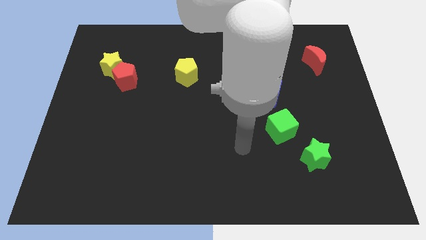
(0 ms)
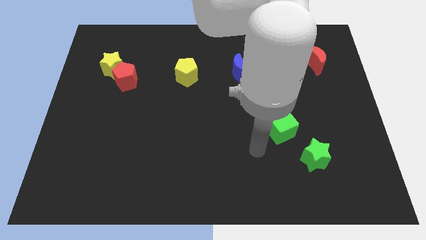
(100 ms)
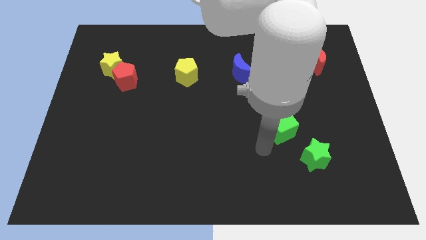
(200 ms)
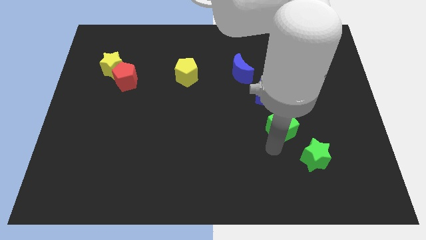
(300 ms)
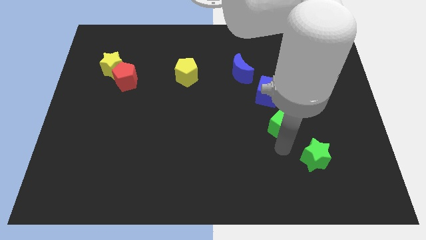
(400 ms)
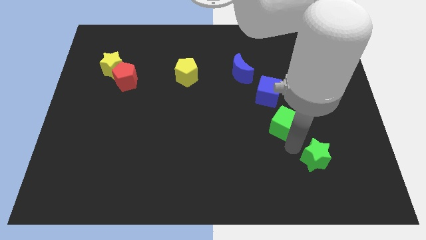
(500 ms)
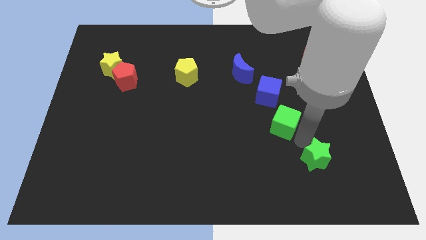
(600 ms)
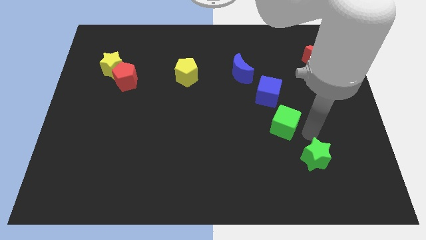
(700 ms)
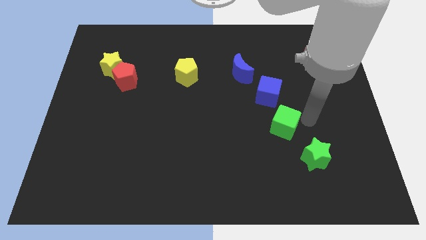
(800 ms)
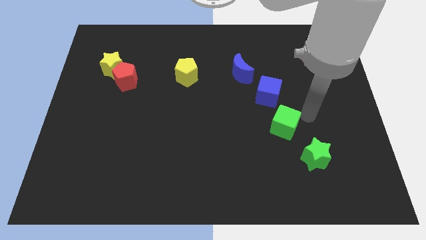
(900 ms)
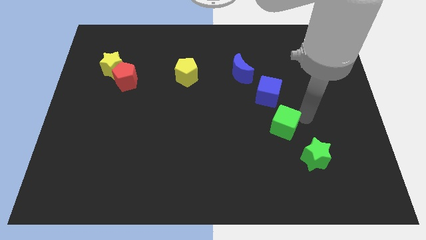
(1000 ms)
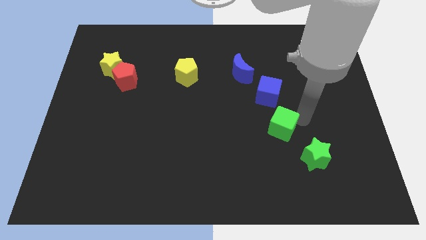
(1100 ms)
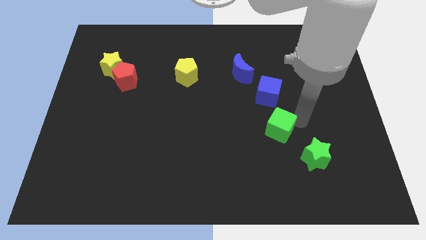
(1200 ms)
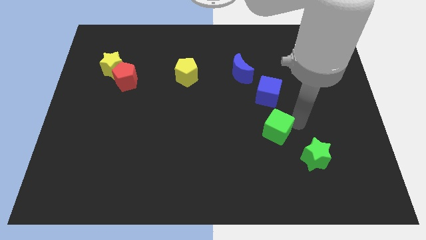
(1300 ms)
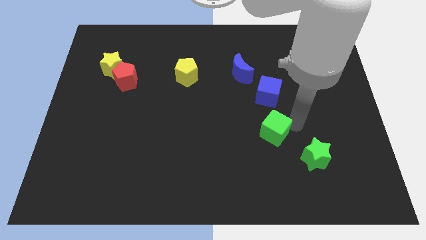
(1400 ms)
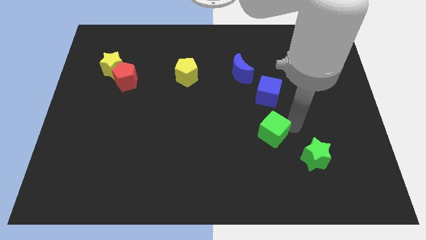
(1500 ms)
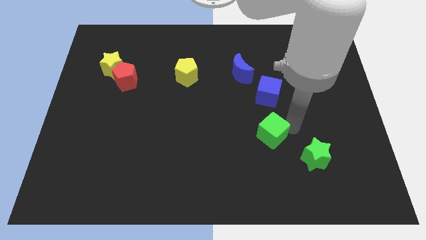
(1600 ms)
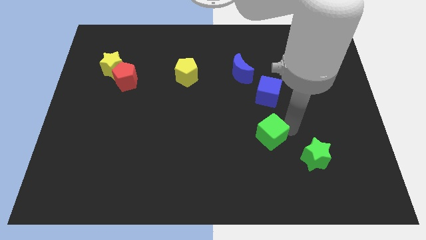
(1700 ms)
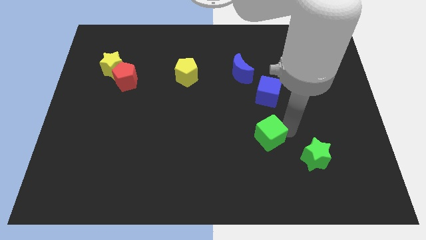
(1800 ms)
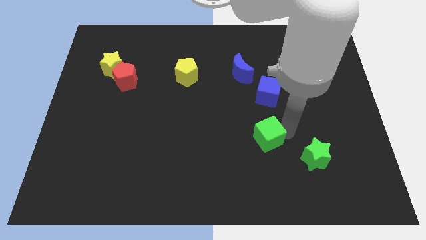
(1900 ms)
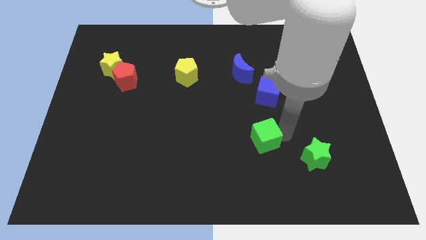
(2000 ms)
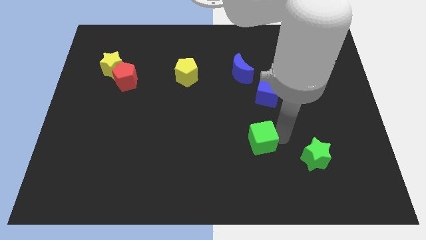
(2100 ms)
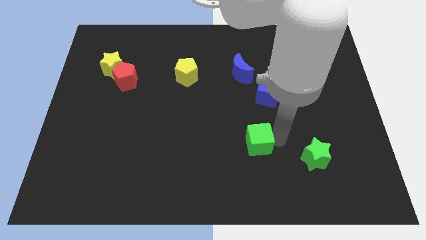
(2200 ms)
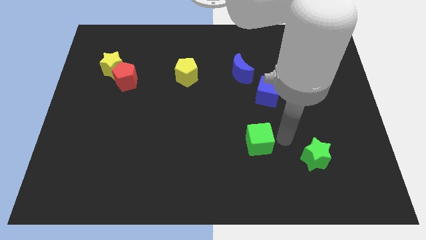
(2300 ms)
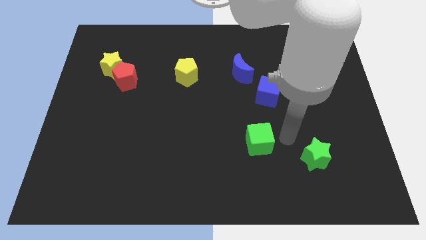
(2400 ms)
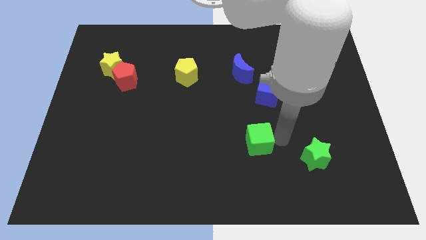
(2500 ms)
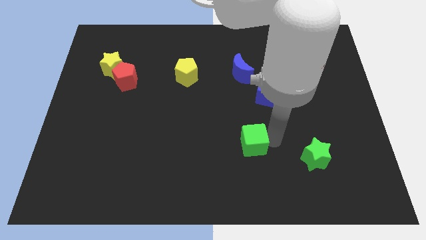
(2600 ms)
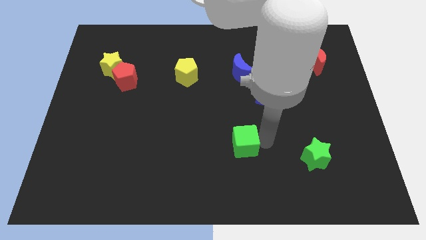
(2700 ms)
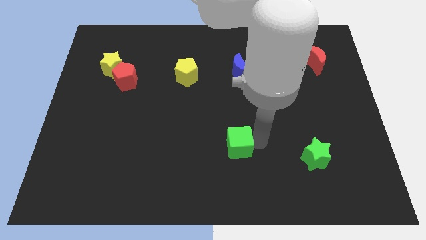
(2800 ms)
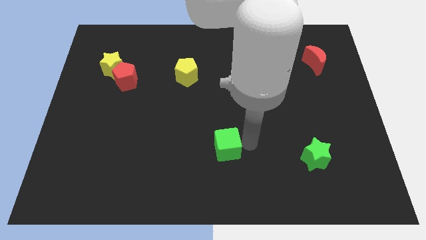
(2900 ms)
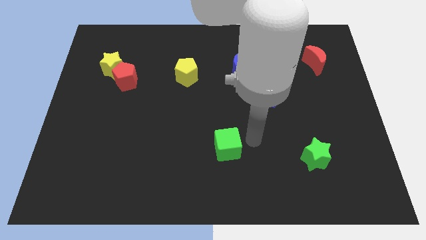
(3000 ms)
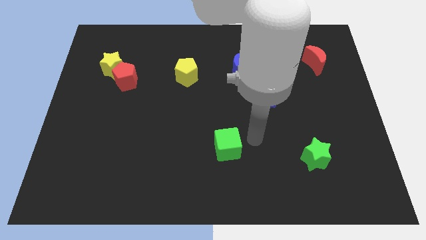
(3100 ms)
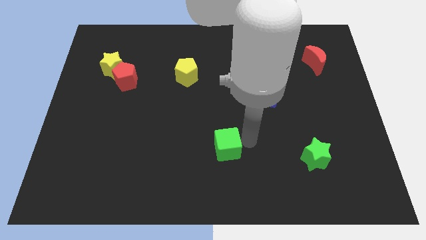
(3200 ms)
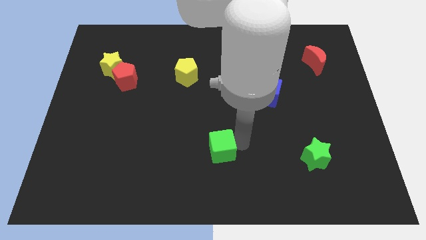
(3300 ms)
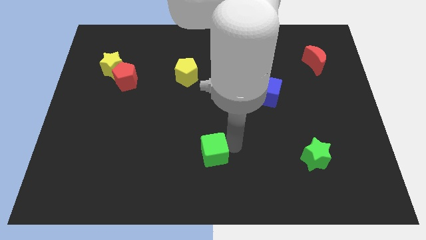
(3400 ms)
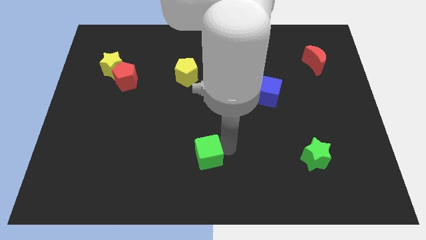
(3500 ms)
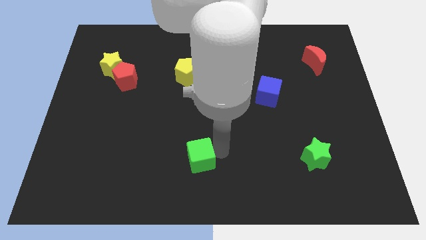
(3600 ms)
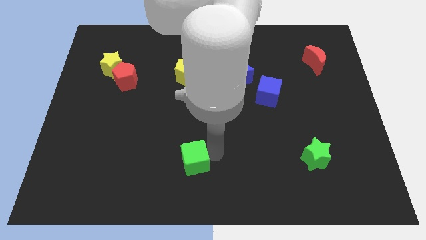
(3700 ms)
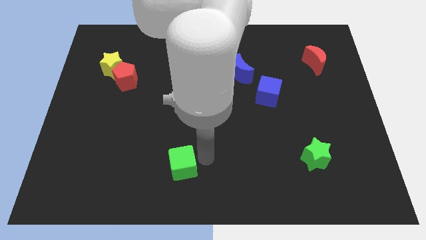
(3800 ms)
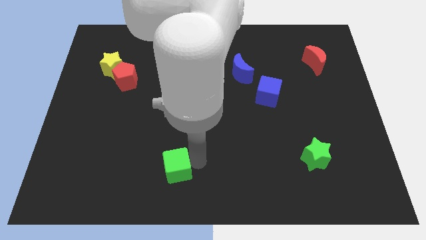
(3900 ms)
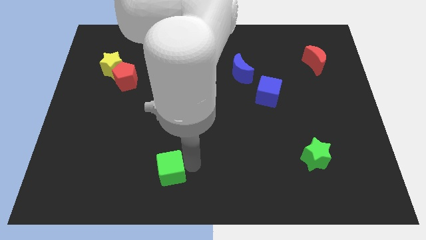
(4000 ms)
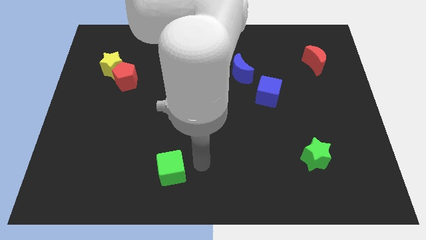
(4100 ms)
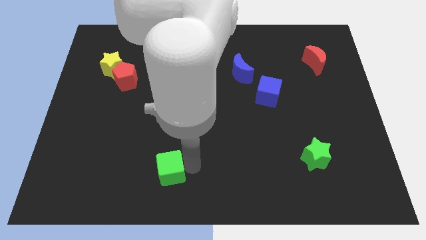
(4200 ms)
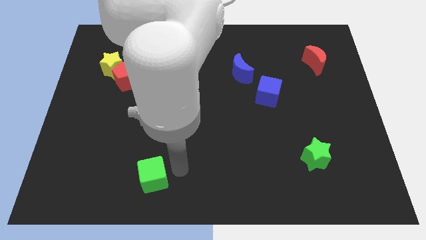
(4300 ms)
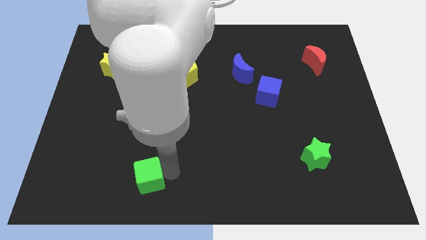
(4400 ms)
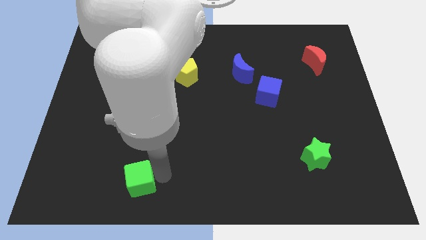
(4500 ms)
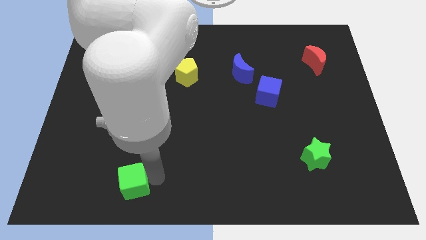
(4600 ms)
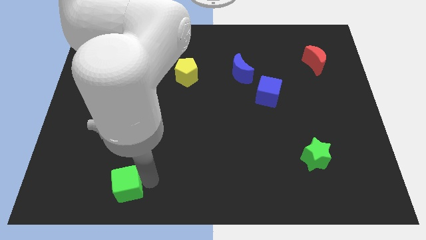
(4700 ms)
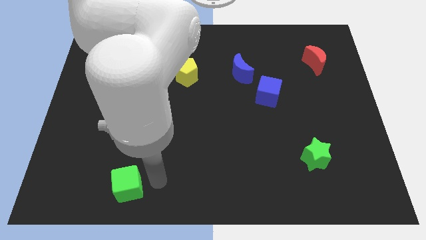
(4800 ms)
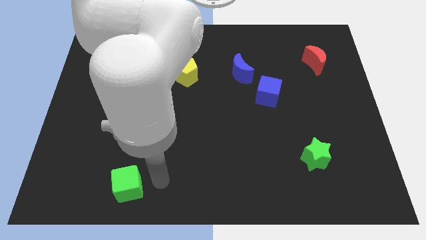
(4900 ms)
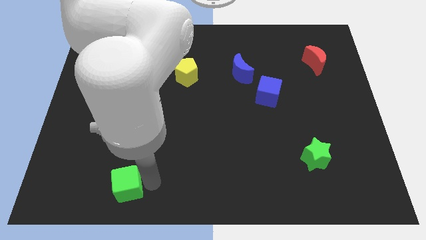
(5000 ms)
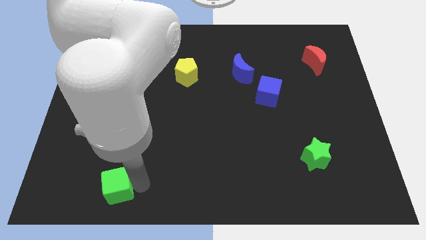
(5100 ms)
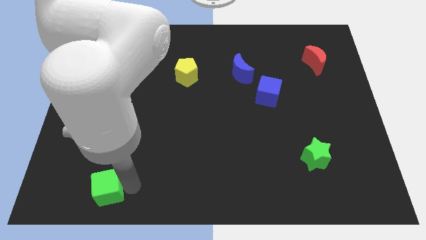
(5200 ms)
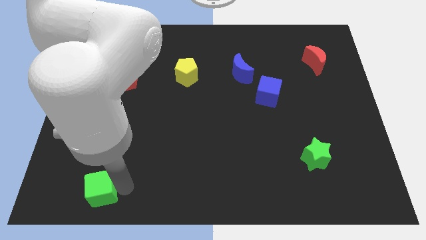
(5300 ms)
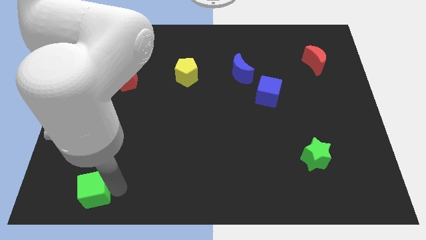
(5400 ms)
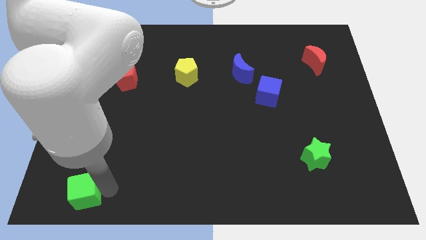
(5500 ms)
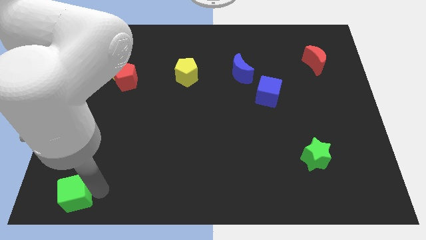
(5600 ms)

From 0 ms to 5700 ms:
slide the green cube to the bottom left corner

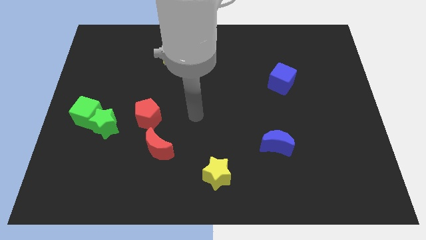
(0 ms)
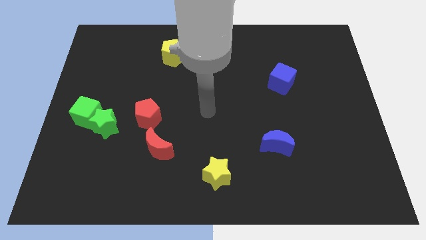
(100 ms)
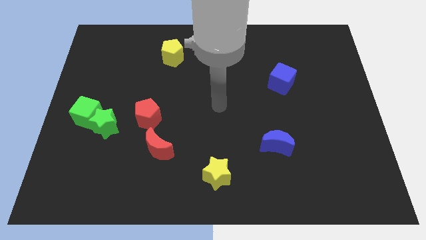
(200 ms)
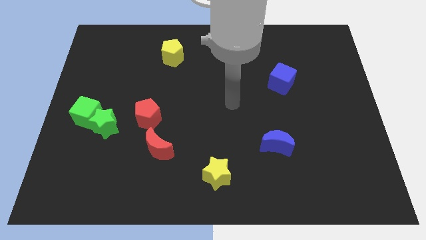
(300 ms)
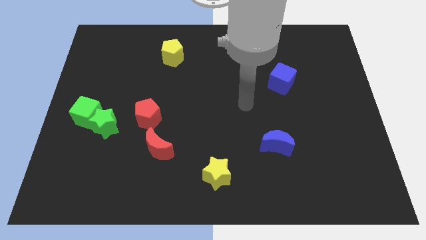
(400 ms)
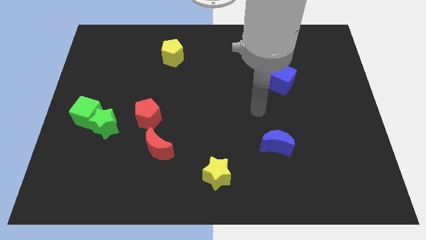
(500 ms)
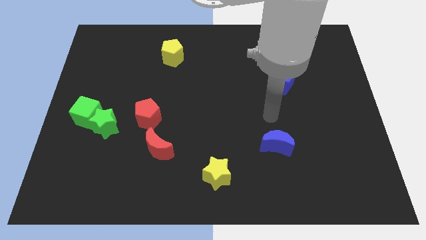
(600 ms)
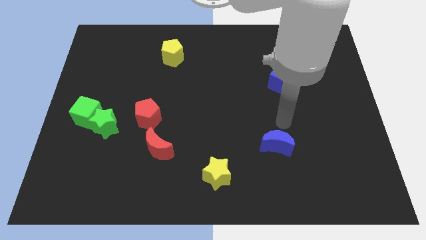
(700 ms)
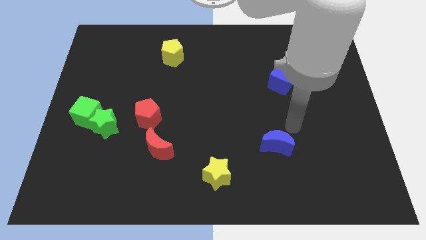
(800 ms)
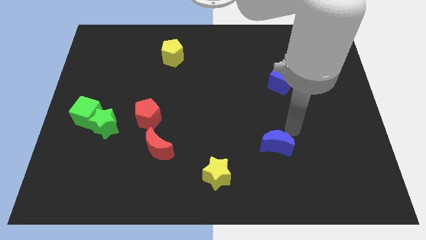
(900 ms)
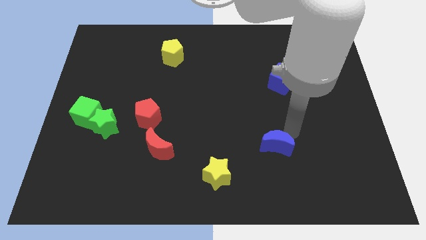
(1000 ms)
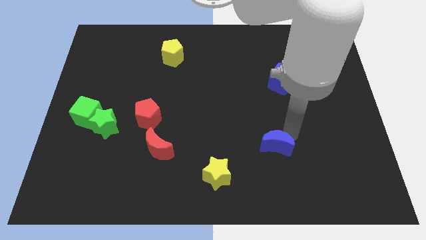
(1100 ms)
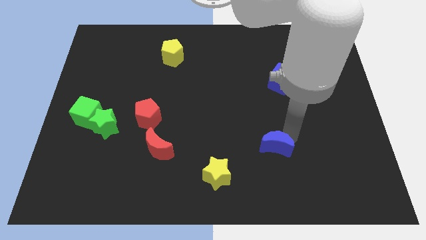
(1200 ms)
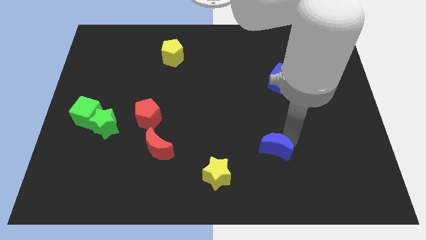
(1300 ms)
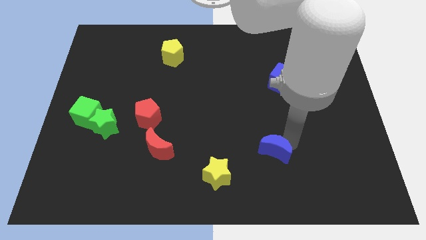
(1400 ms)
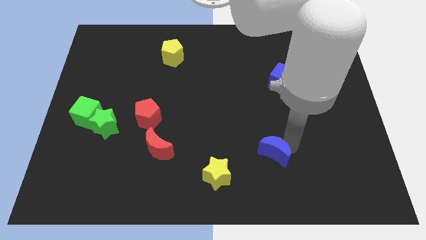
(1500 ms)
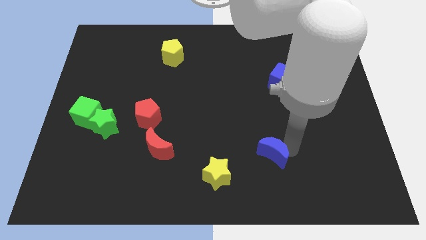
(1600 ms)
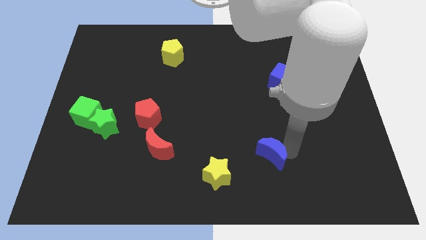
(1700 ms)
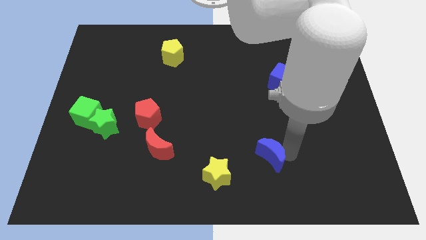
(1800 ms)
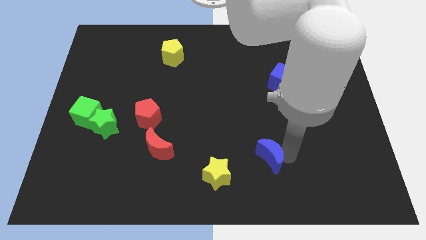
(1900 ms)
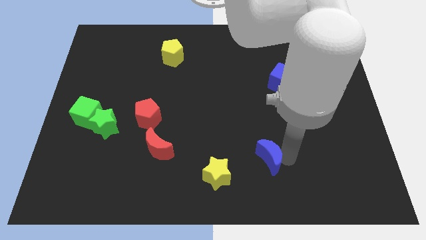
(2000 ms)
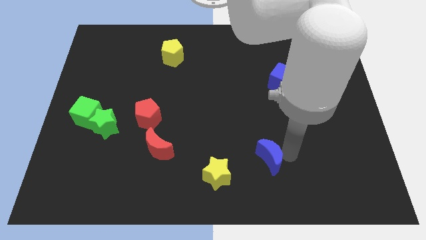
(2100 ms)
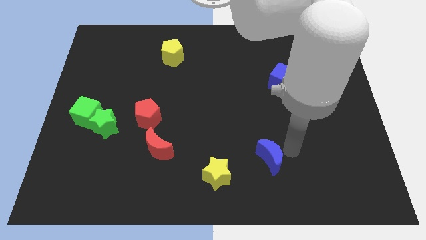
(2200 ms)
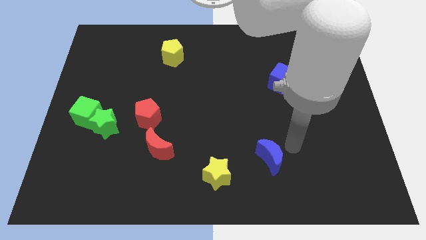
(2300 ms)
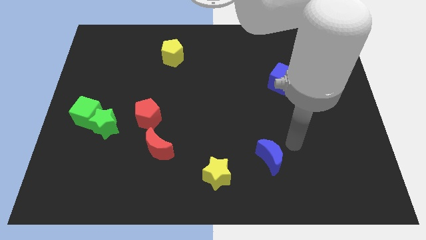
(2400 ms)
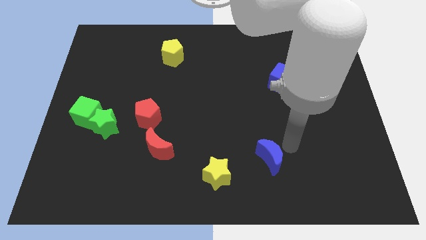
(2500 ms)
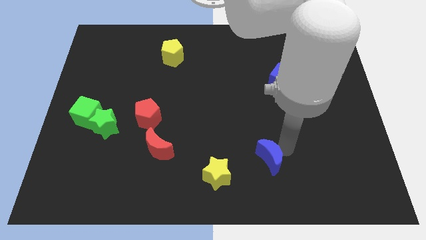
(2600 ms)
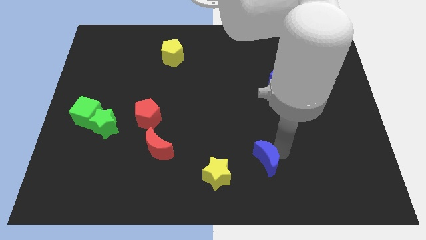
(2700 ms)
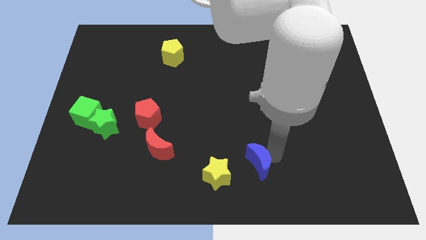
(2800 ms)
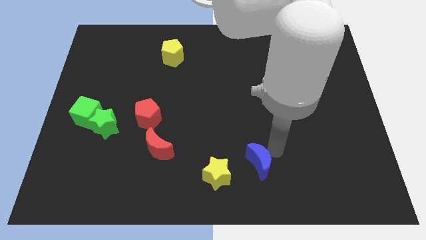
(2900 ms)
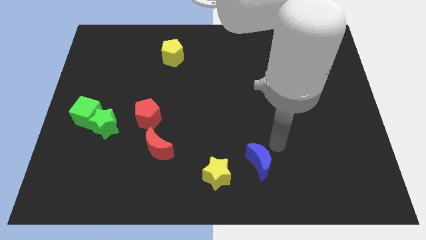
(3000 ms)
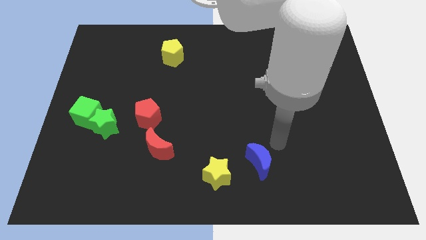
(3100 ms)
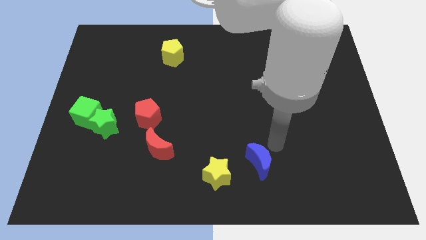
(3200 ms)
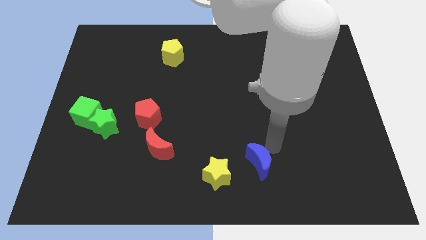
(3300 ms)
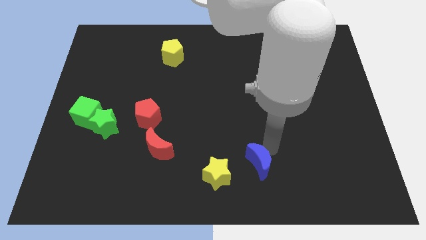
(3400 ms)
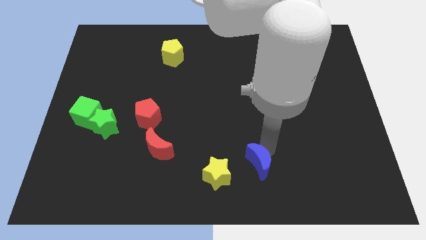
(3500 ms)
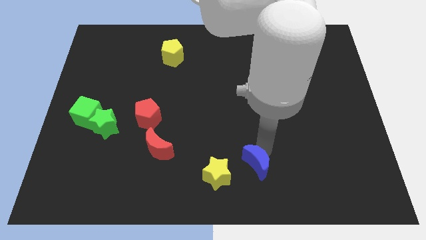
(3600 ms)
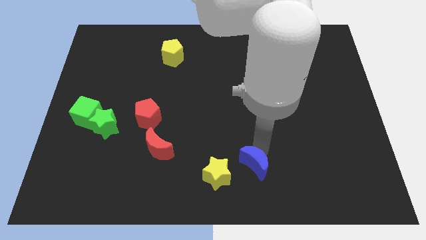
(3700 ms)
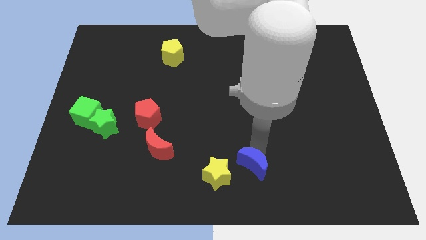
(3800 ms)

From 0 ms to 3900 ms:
put the blue moon to the bottom
